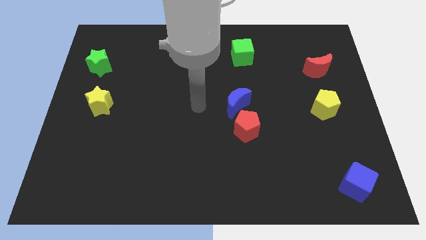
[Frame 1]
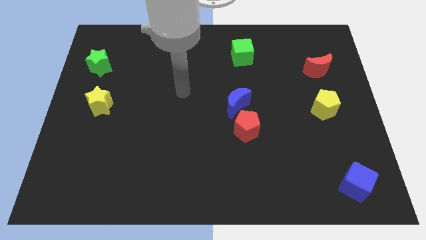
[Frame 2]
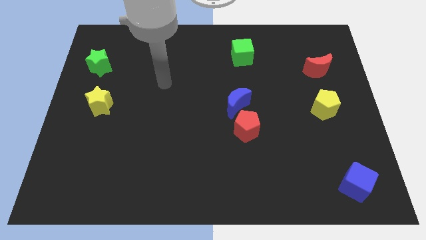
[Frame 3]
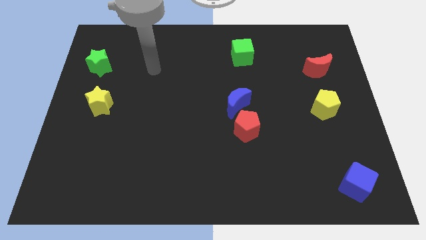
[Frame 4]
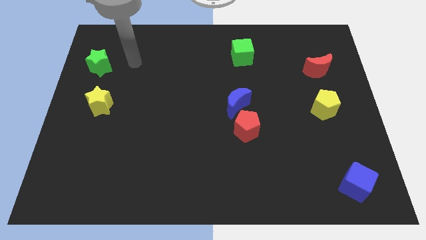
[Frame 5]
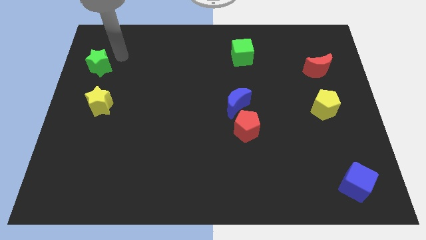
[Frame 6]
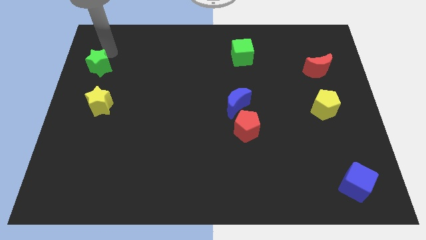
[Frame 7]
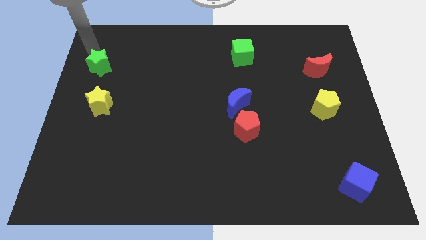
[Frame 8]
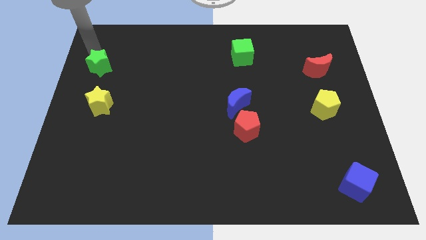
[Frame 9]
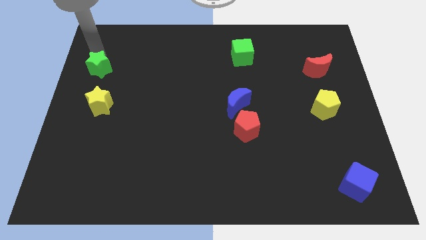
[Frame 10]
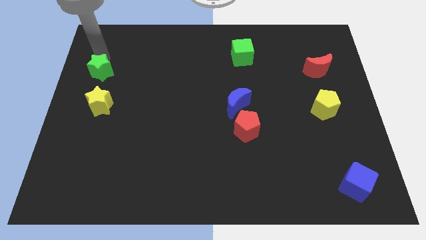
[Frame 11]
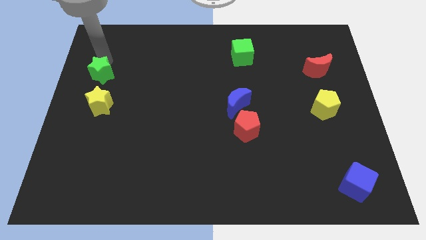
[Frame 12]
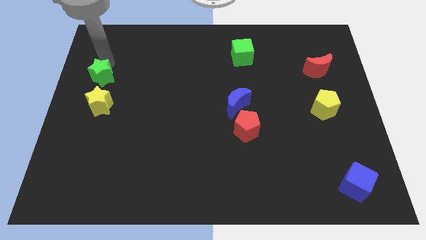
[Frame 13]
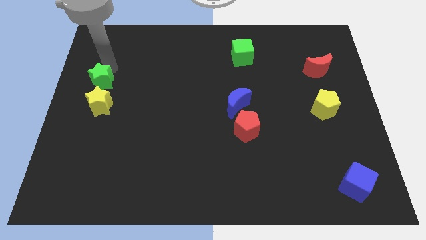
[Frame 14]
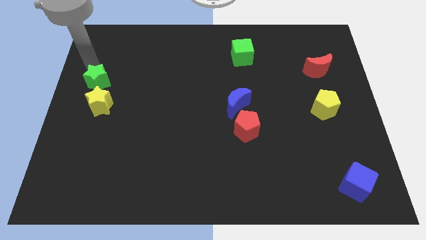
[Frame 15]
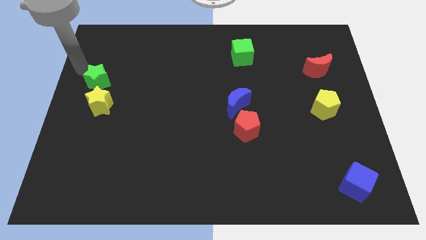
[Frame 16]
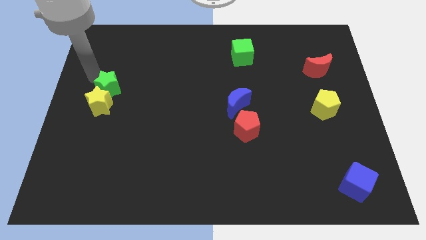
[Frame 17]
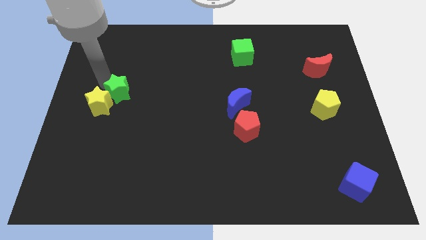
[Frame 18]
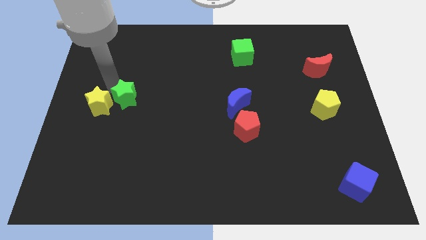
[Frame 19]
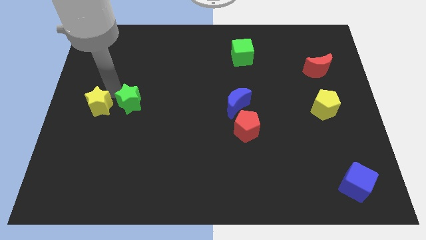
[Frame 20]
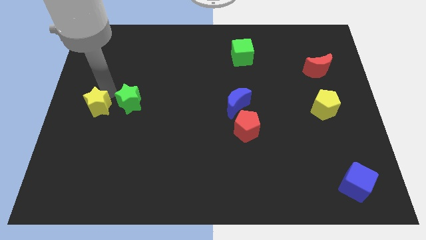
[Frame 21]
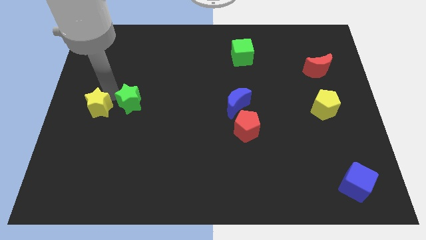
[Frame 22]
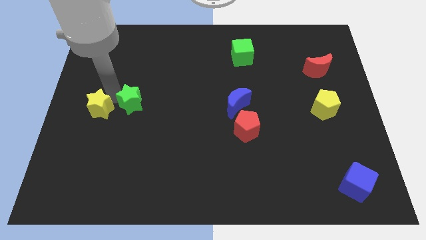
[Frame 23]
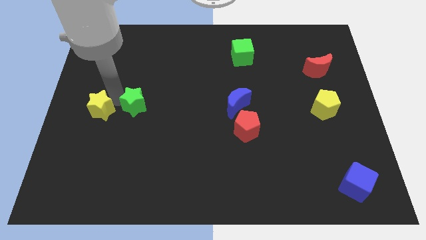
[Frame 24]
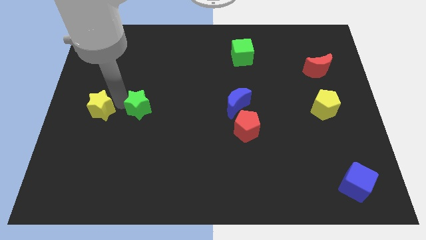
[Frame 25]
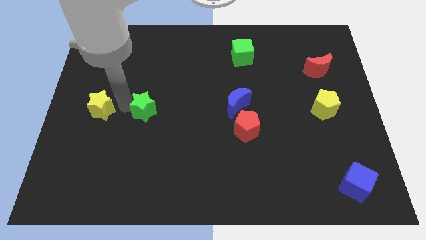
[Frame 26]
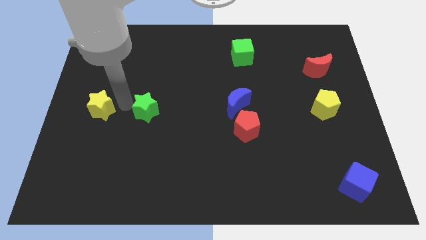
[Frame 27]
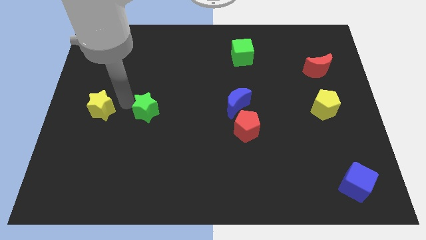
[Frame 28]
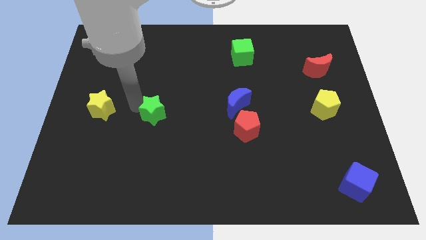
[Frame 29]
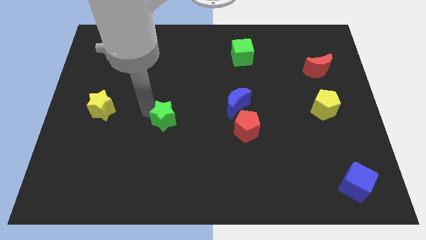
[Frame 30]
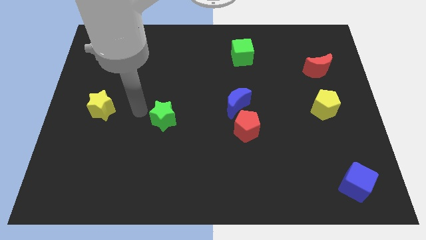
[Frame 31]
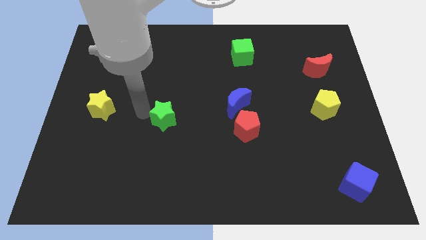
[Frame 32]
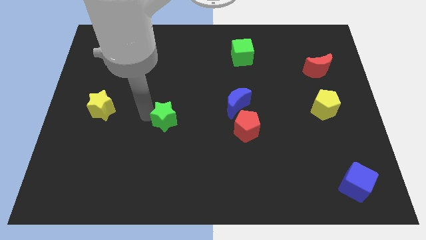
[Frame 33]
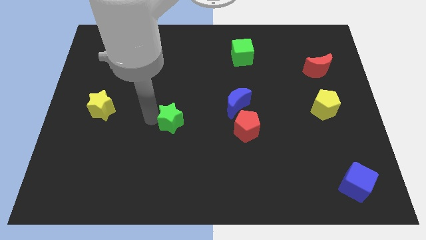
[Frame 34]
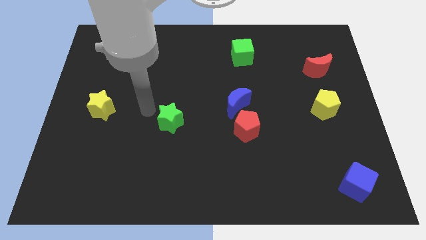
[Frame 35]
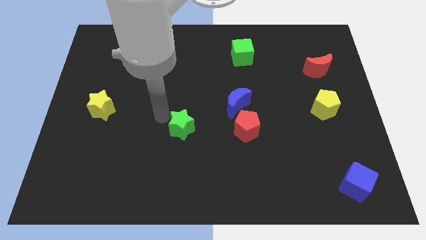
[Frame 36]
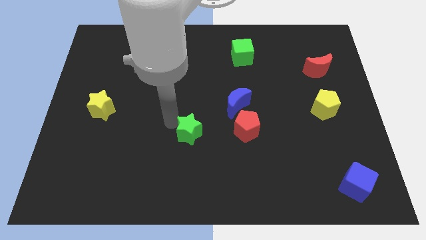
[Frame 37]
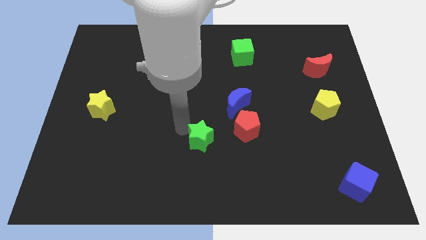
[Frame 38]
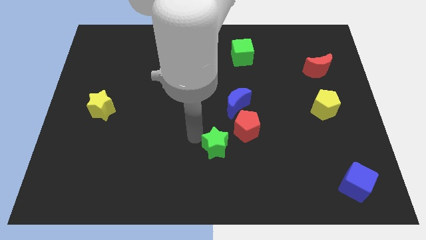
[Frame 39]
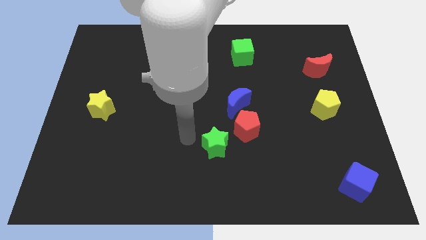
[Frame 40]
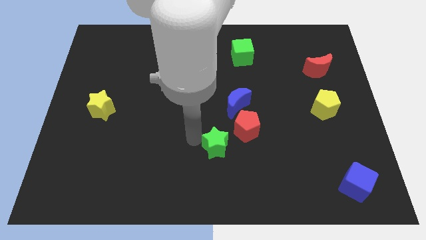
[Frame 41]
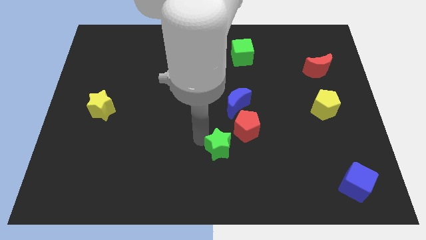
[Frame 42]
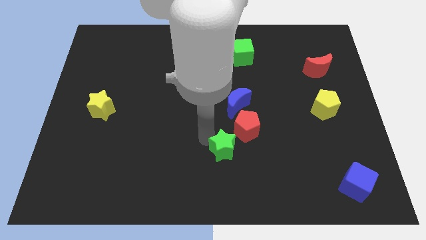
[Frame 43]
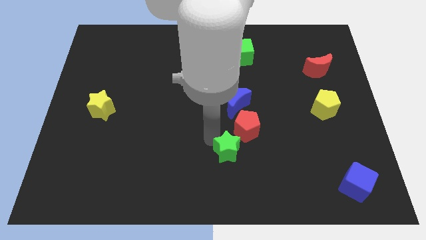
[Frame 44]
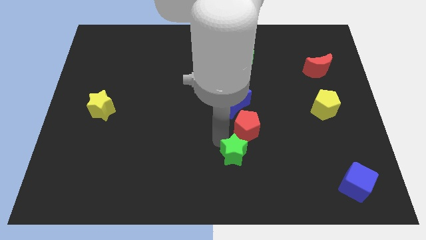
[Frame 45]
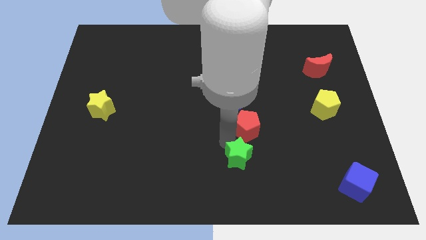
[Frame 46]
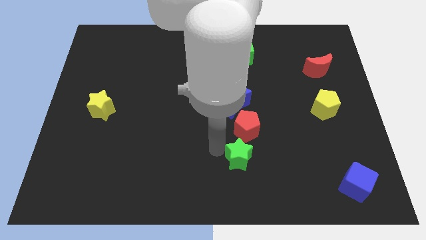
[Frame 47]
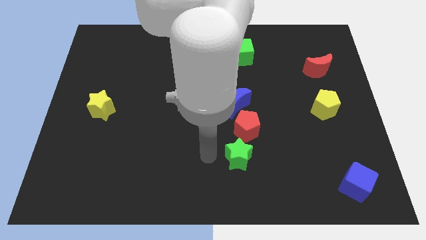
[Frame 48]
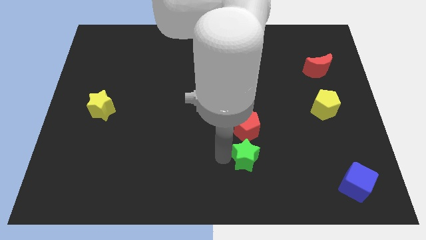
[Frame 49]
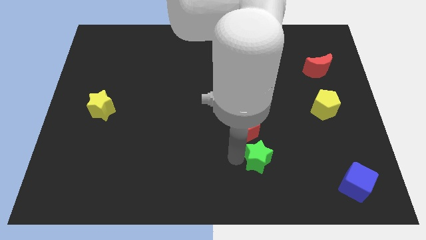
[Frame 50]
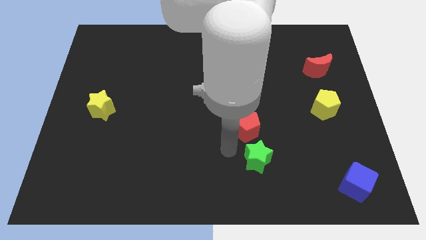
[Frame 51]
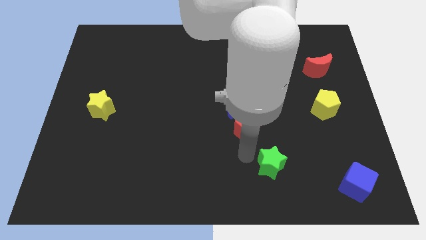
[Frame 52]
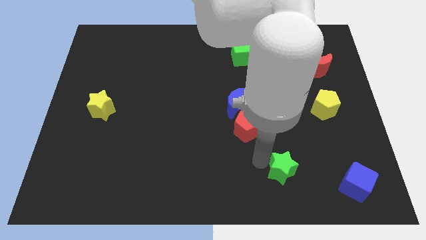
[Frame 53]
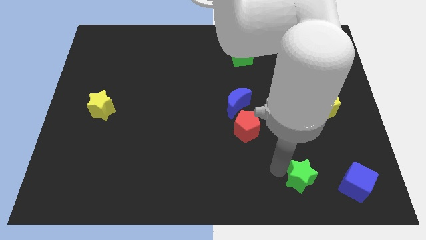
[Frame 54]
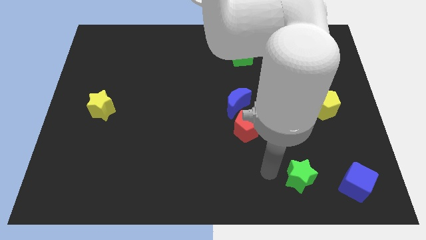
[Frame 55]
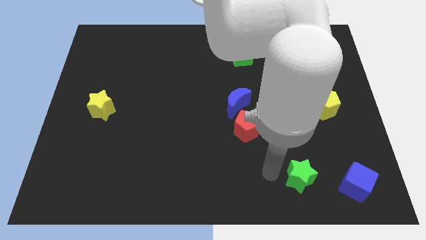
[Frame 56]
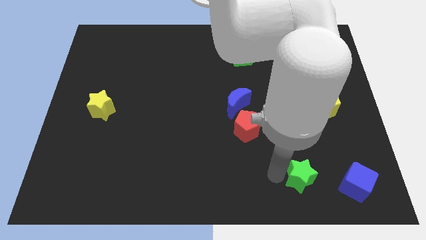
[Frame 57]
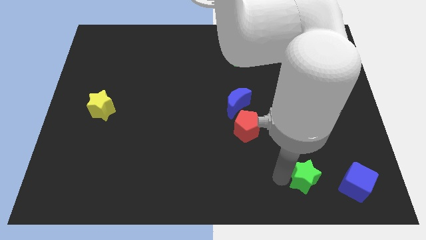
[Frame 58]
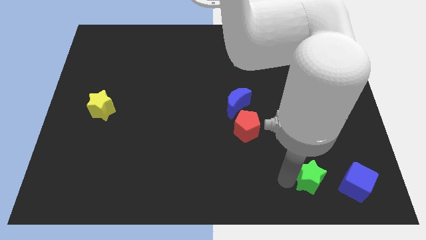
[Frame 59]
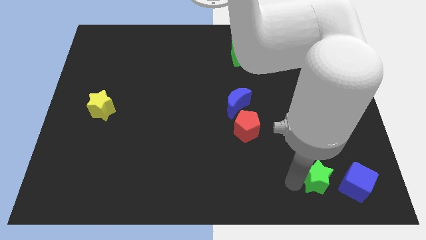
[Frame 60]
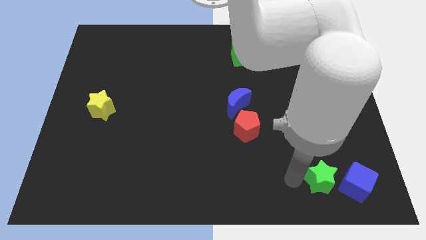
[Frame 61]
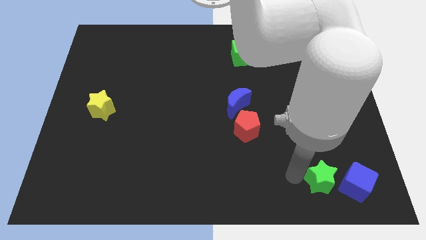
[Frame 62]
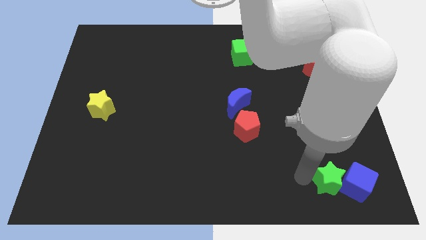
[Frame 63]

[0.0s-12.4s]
push the green star towards the blue cube
